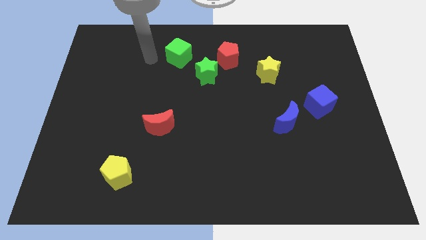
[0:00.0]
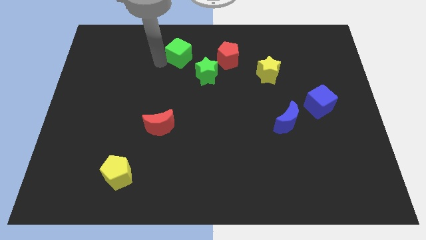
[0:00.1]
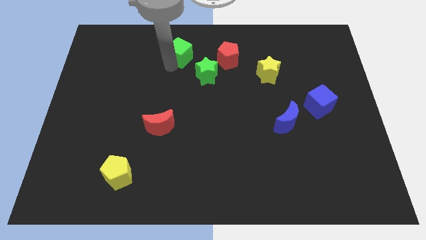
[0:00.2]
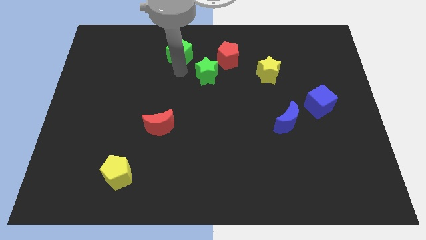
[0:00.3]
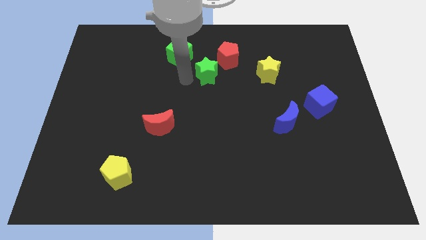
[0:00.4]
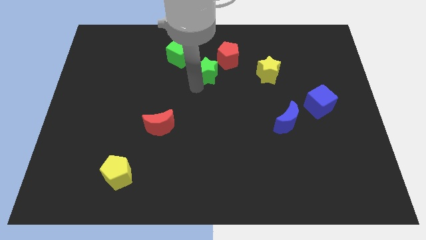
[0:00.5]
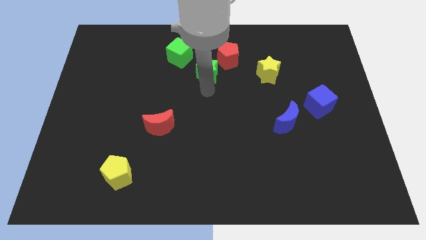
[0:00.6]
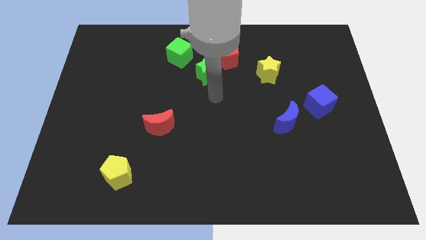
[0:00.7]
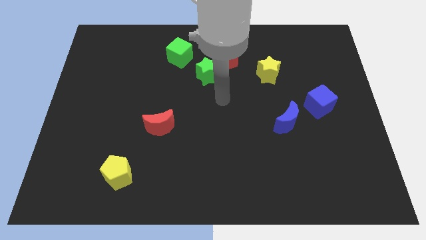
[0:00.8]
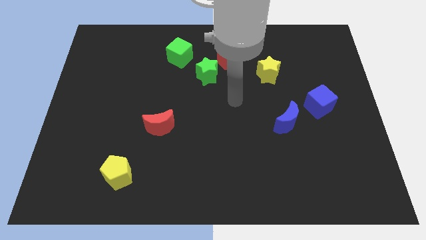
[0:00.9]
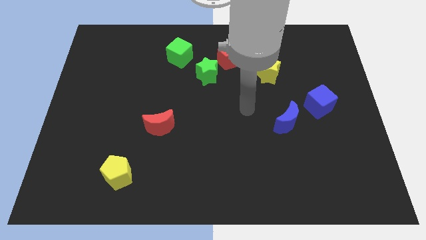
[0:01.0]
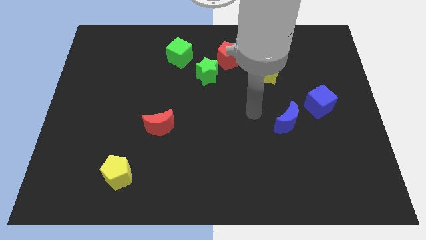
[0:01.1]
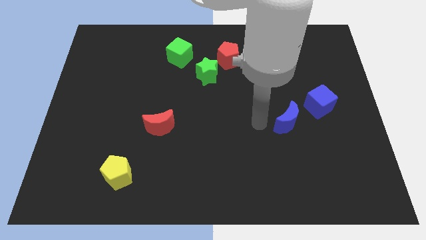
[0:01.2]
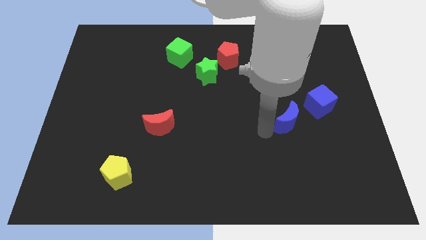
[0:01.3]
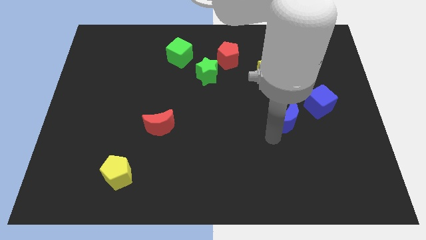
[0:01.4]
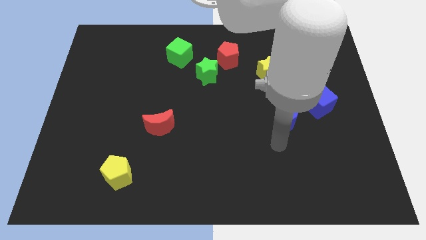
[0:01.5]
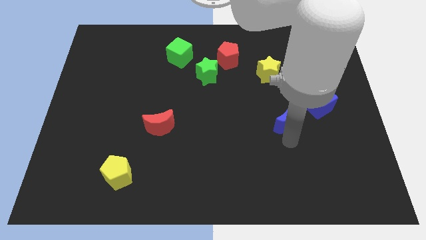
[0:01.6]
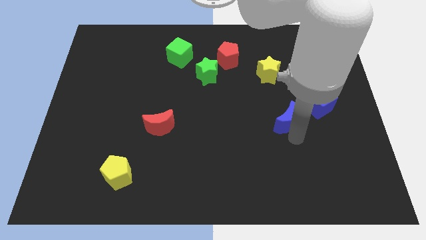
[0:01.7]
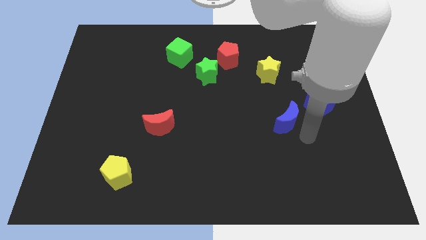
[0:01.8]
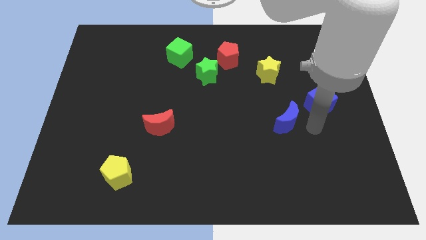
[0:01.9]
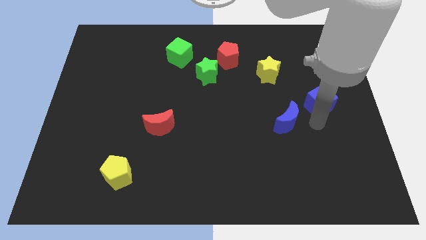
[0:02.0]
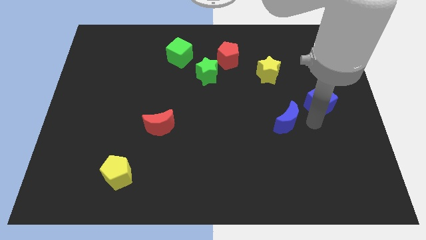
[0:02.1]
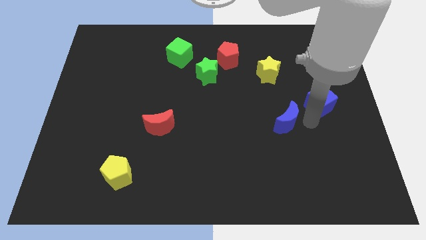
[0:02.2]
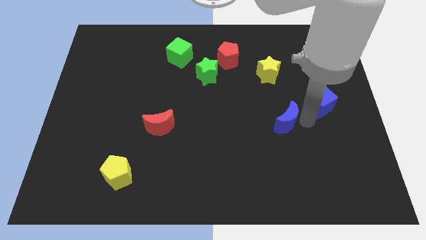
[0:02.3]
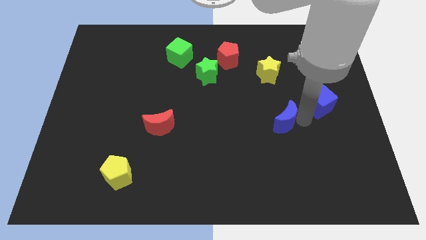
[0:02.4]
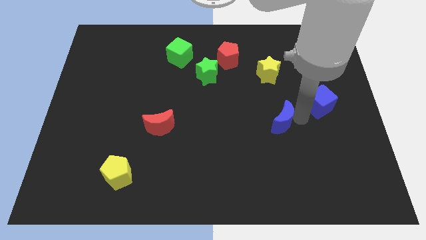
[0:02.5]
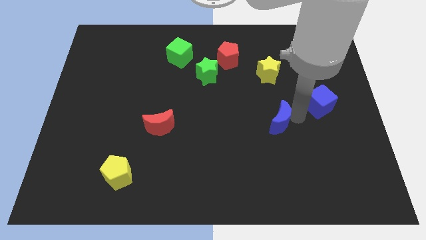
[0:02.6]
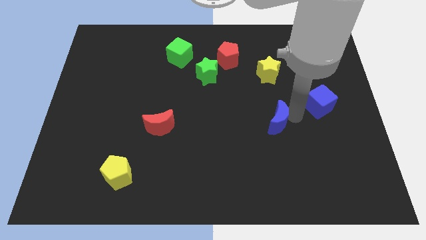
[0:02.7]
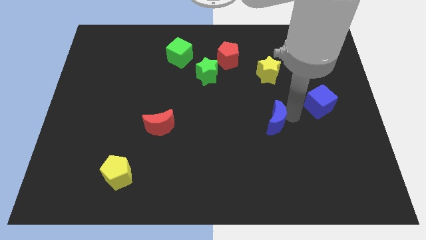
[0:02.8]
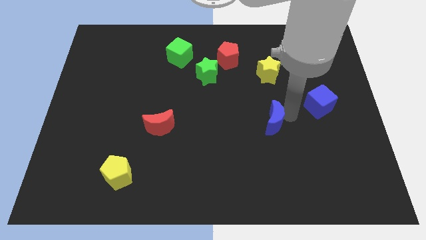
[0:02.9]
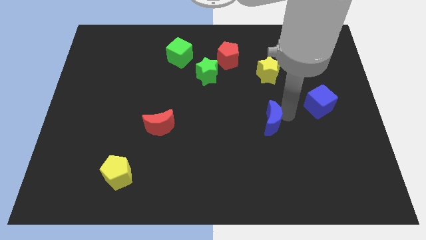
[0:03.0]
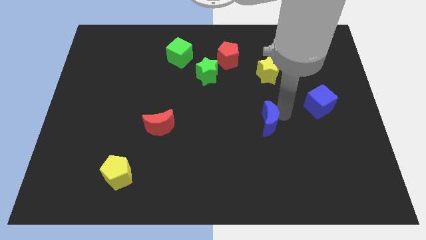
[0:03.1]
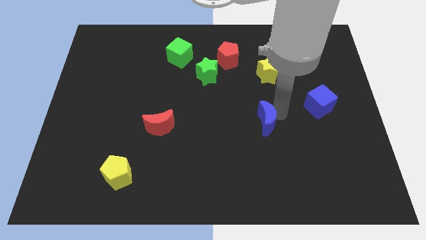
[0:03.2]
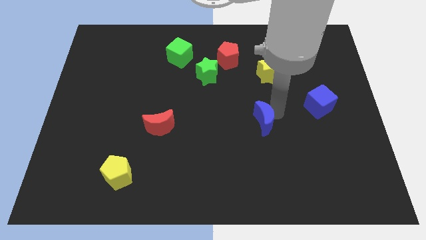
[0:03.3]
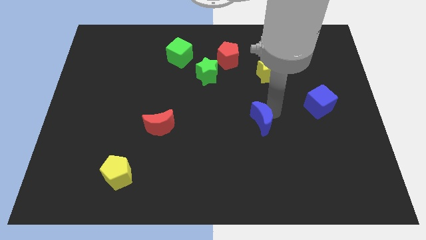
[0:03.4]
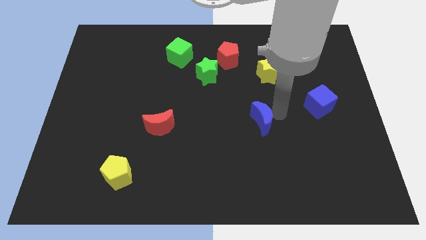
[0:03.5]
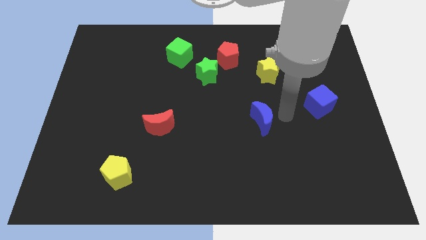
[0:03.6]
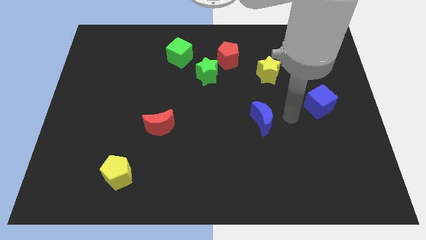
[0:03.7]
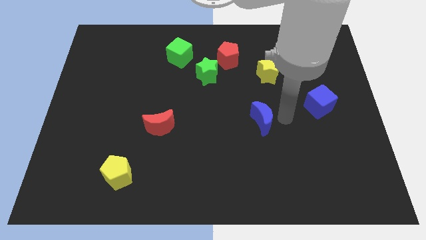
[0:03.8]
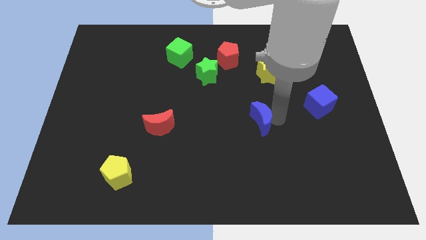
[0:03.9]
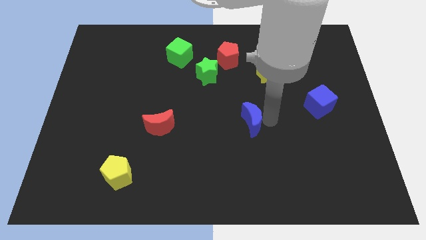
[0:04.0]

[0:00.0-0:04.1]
slightly move the blue moon left

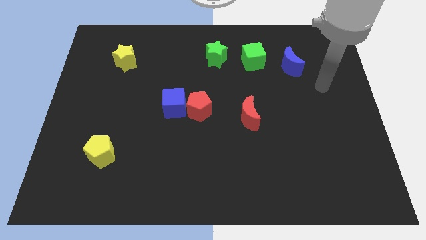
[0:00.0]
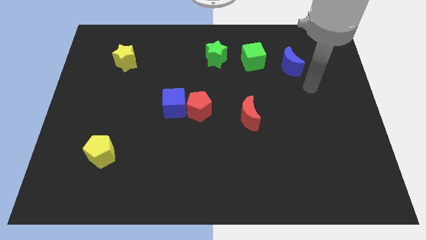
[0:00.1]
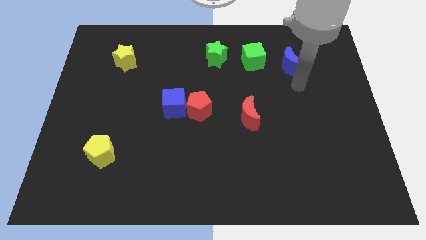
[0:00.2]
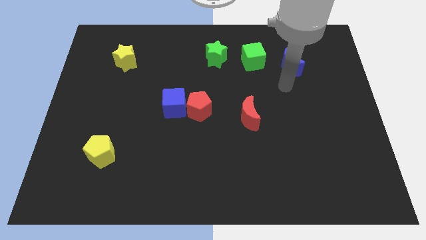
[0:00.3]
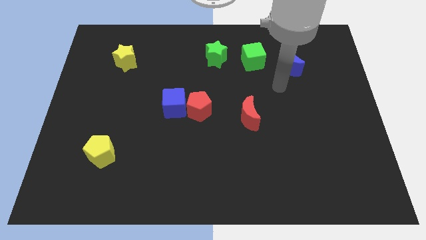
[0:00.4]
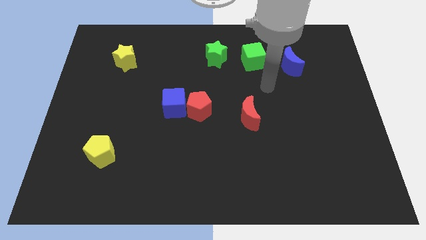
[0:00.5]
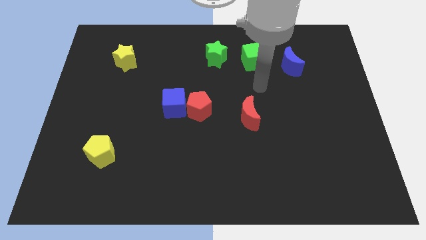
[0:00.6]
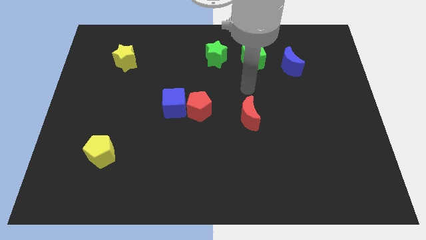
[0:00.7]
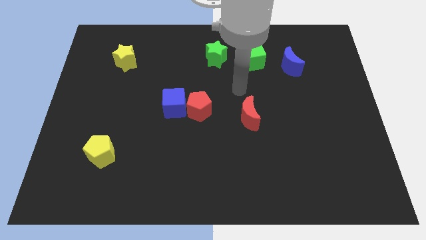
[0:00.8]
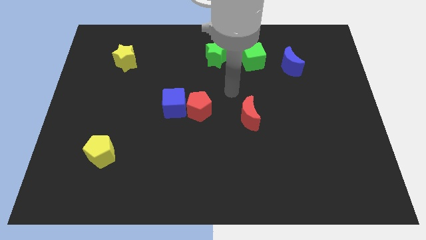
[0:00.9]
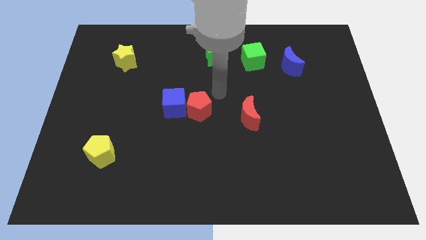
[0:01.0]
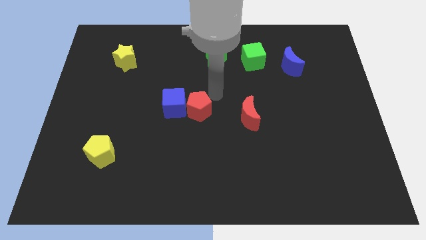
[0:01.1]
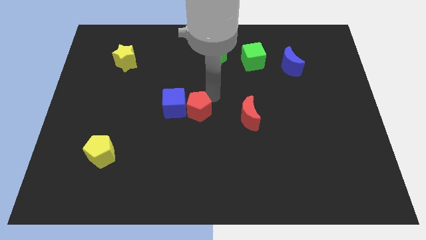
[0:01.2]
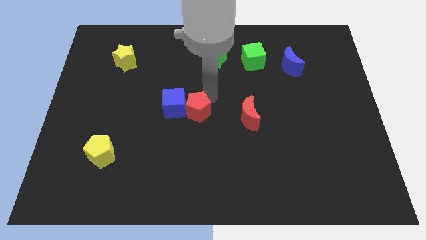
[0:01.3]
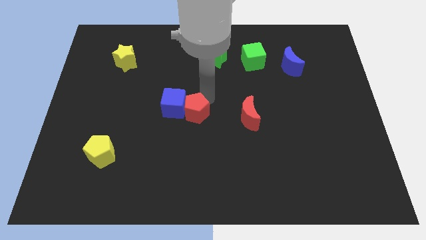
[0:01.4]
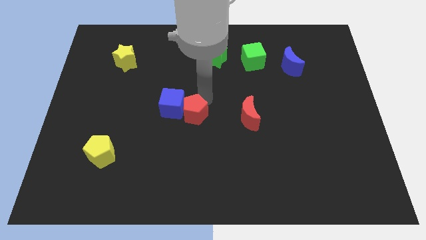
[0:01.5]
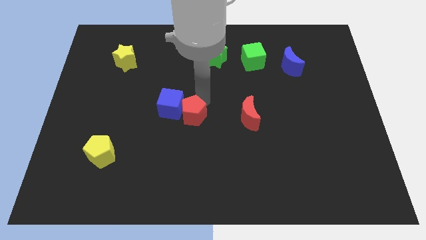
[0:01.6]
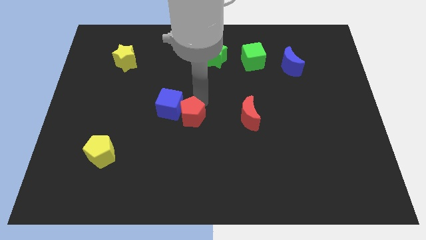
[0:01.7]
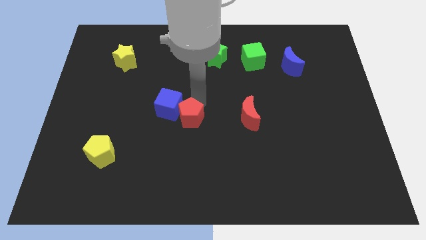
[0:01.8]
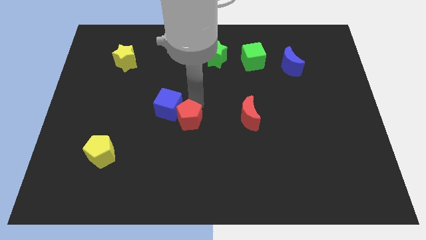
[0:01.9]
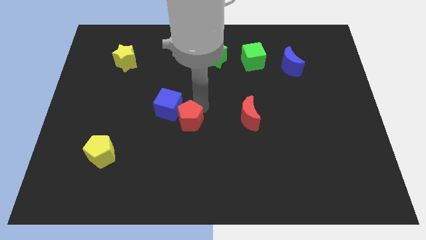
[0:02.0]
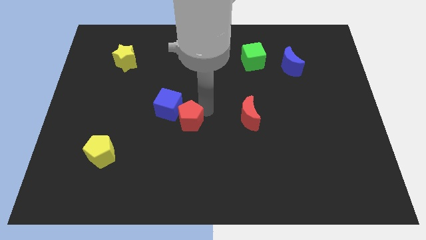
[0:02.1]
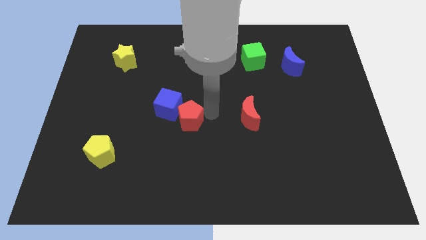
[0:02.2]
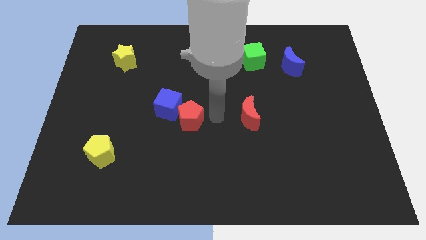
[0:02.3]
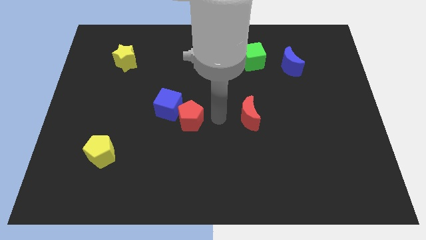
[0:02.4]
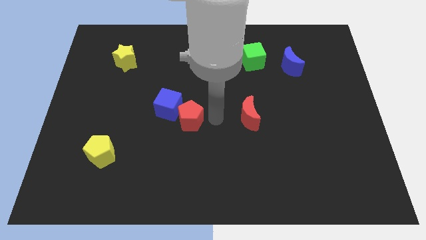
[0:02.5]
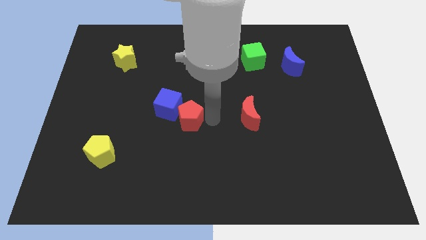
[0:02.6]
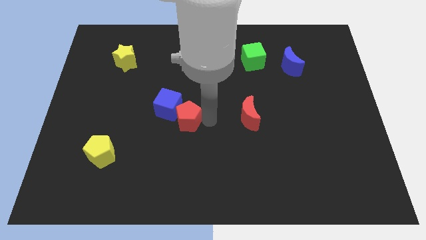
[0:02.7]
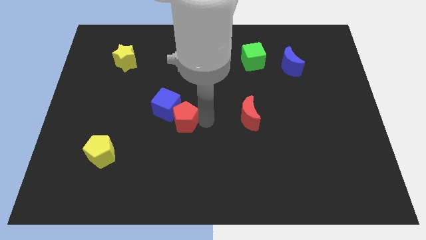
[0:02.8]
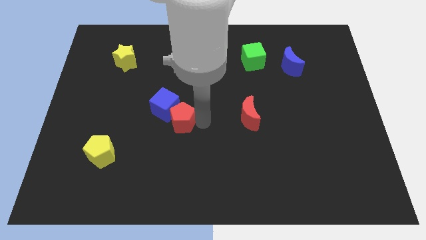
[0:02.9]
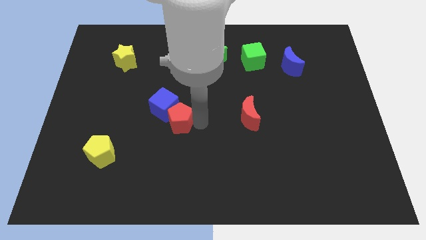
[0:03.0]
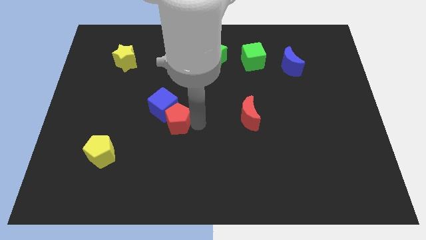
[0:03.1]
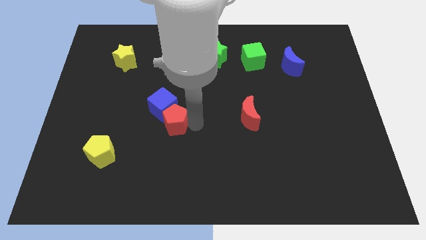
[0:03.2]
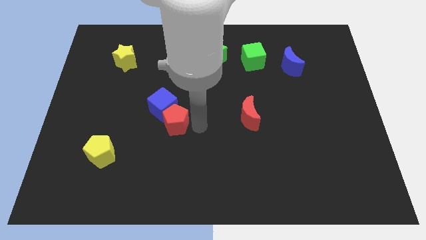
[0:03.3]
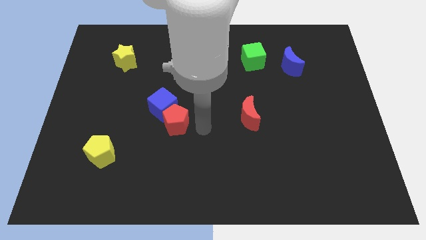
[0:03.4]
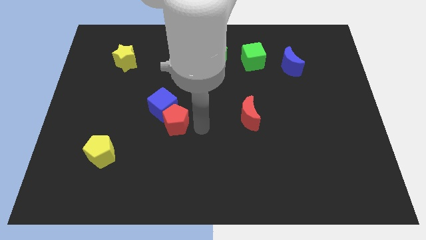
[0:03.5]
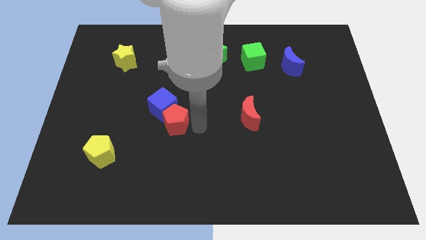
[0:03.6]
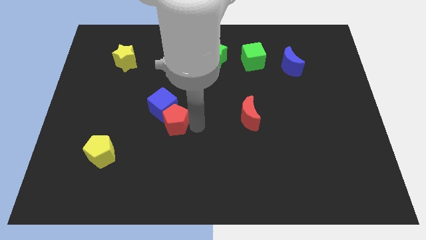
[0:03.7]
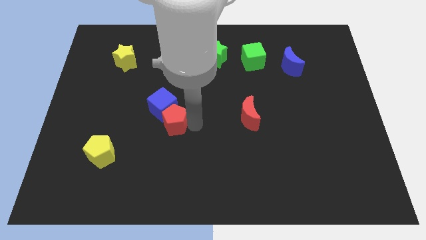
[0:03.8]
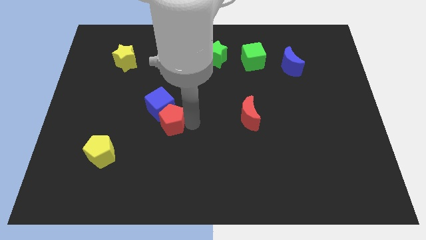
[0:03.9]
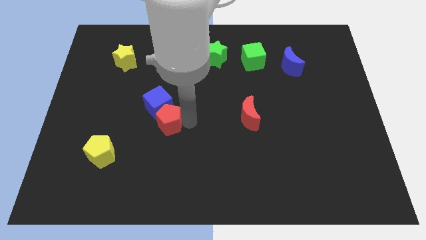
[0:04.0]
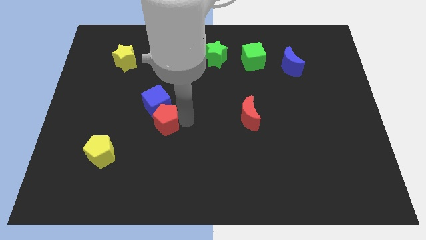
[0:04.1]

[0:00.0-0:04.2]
slightly slide the red pentagon to the left
